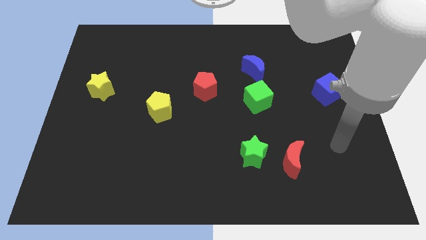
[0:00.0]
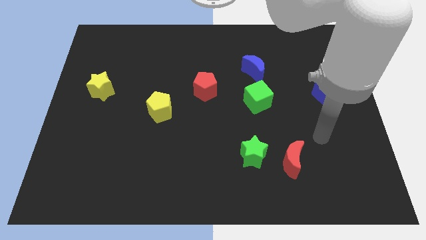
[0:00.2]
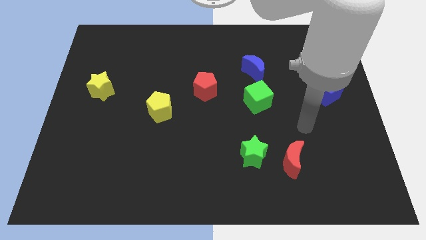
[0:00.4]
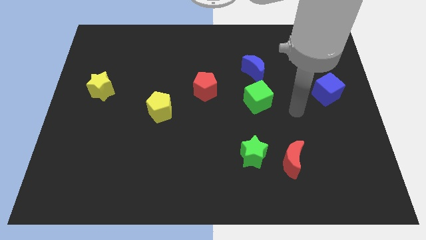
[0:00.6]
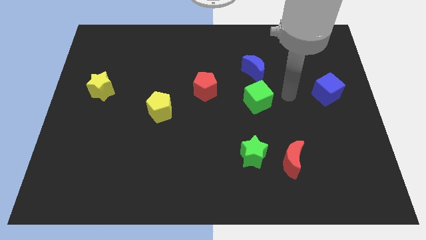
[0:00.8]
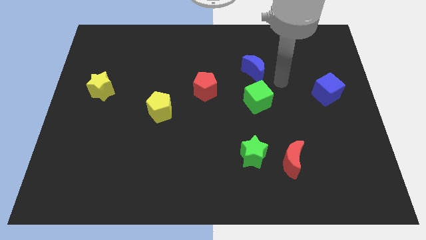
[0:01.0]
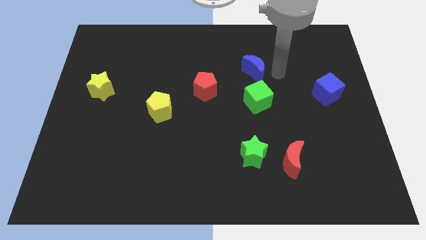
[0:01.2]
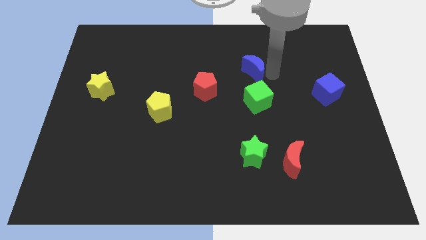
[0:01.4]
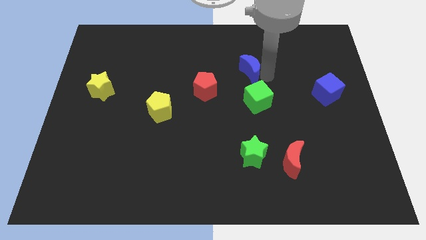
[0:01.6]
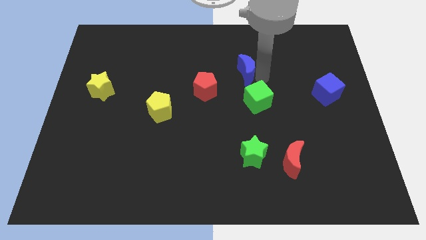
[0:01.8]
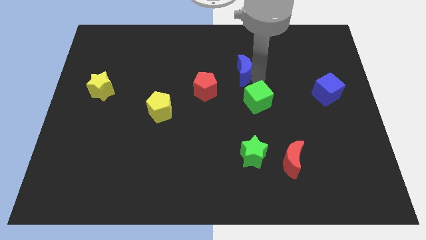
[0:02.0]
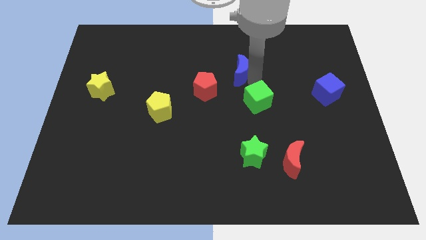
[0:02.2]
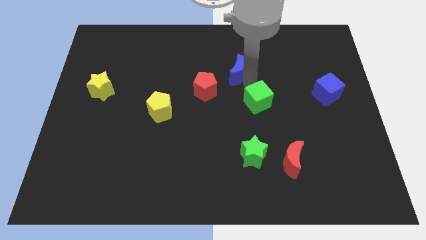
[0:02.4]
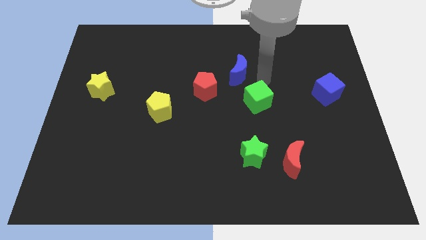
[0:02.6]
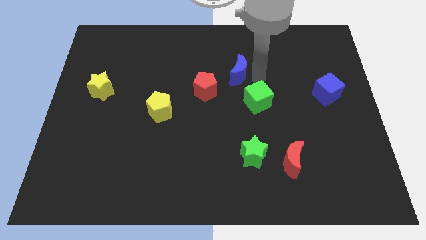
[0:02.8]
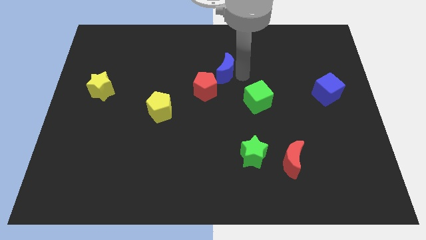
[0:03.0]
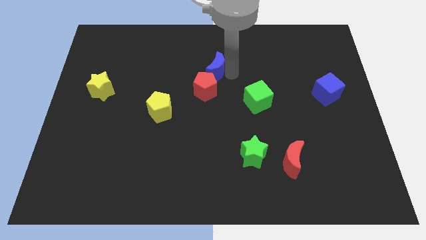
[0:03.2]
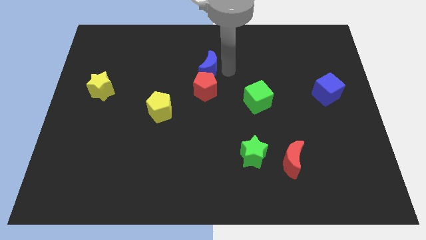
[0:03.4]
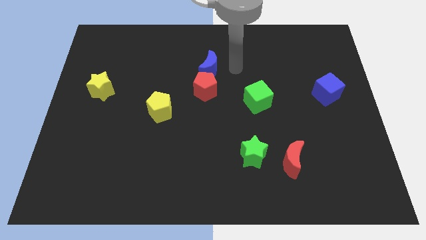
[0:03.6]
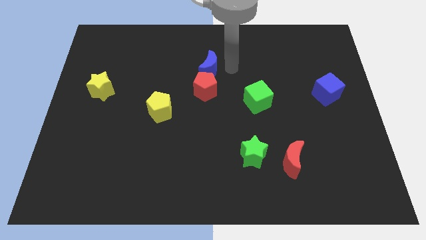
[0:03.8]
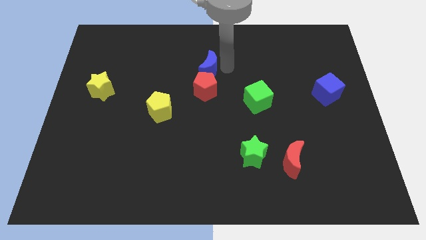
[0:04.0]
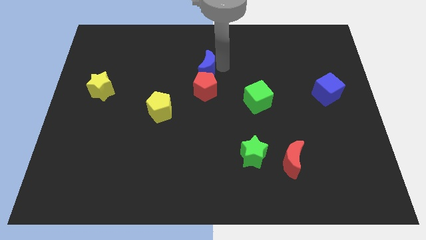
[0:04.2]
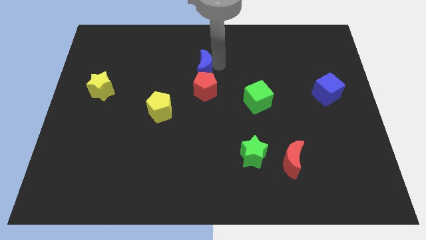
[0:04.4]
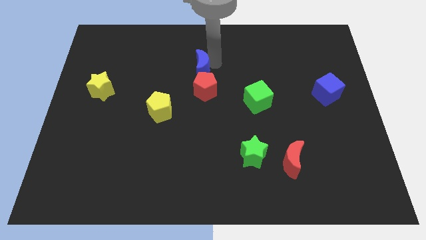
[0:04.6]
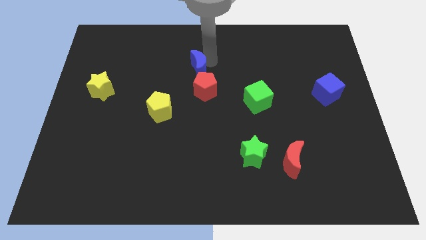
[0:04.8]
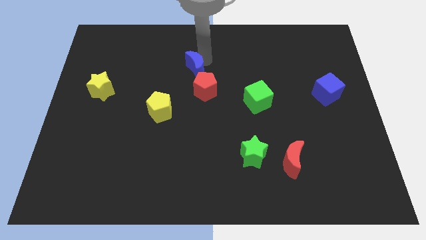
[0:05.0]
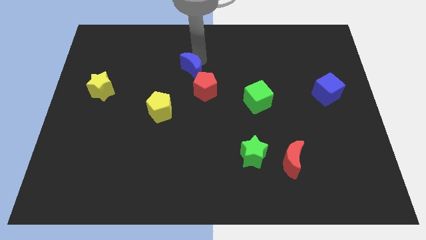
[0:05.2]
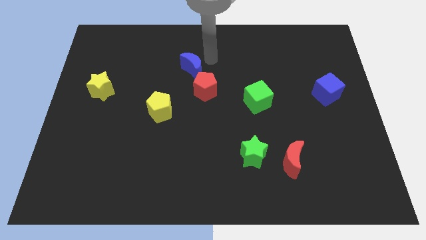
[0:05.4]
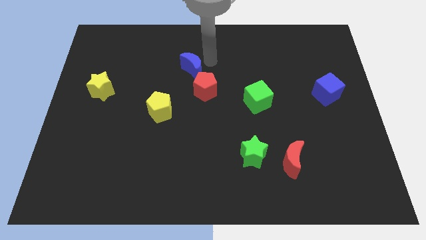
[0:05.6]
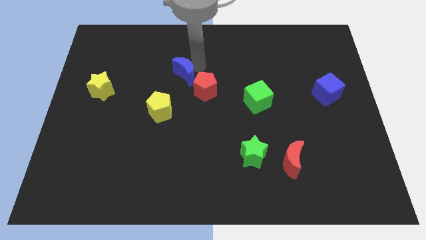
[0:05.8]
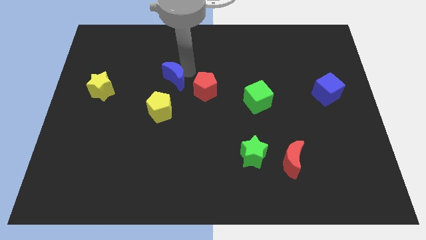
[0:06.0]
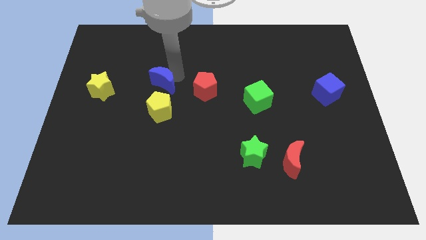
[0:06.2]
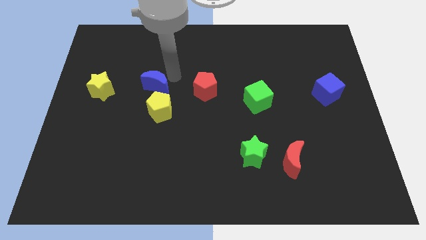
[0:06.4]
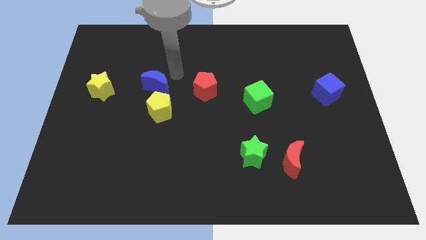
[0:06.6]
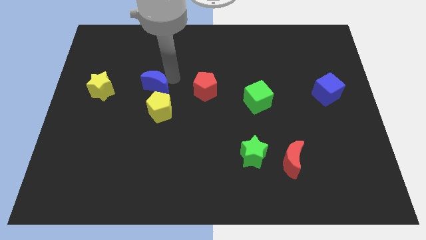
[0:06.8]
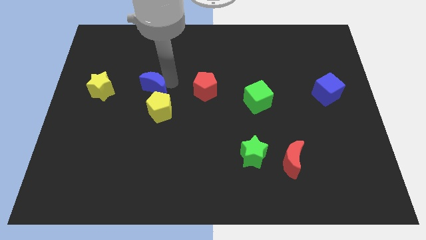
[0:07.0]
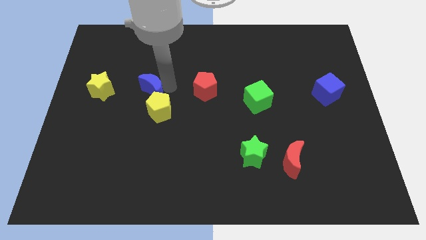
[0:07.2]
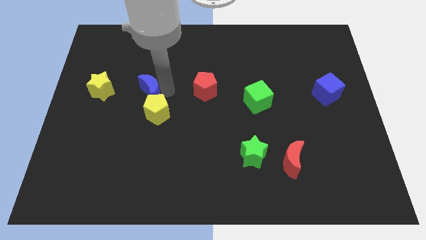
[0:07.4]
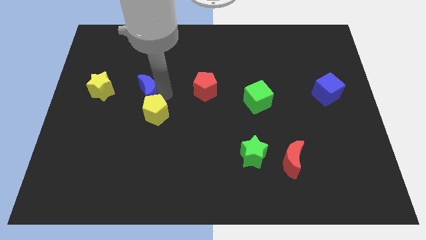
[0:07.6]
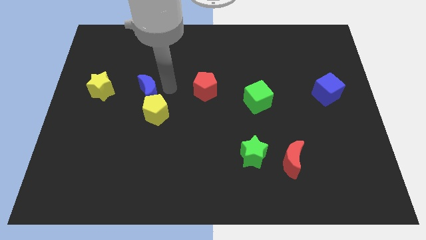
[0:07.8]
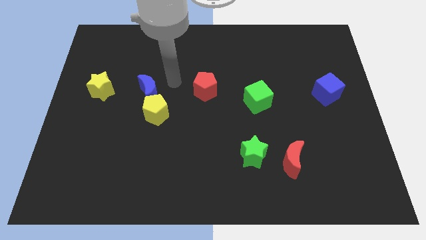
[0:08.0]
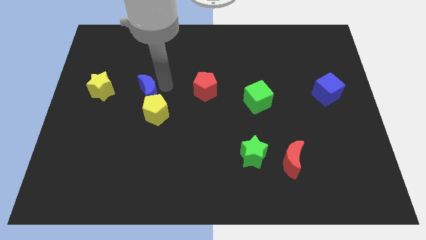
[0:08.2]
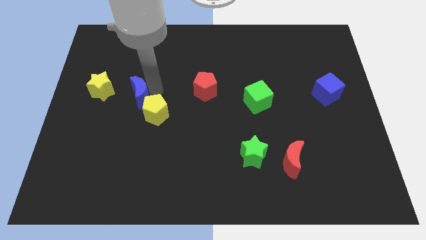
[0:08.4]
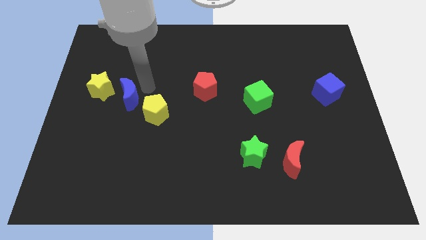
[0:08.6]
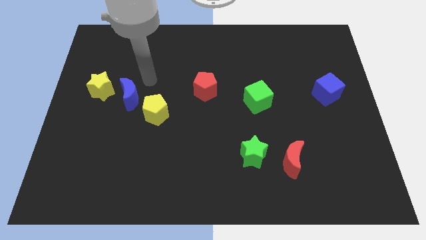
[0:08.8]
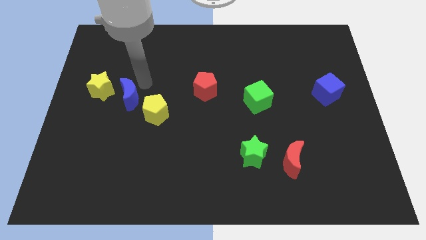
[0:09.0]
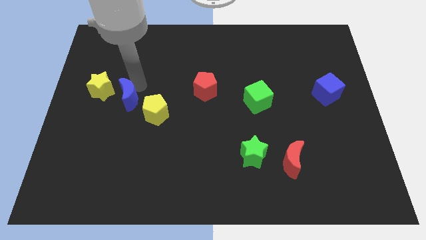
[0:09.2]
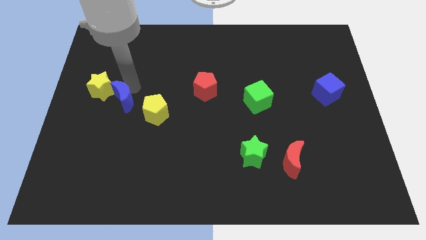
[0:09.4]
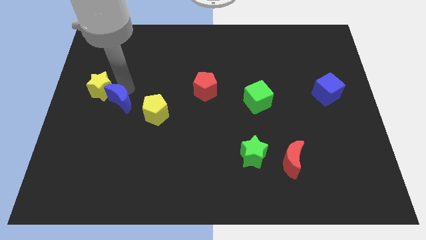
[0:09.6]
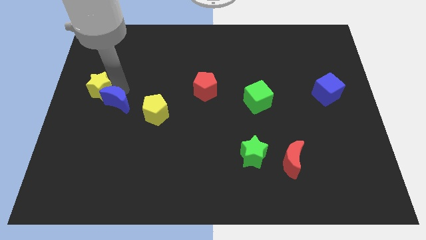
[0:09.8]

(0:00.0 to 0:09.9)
push the blue moon to the bottom side of the yellow star

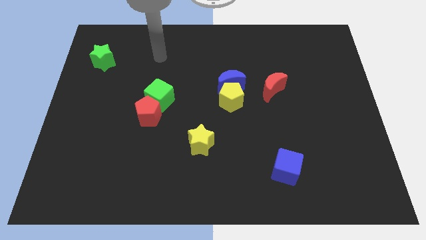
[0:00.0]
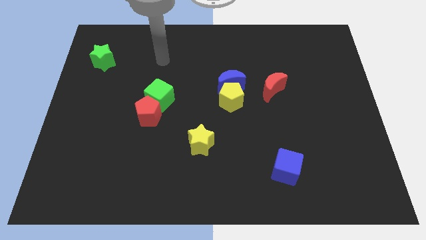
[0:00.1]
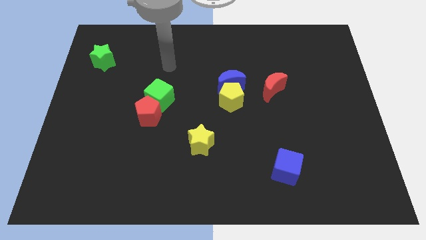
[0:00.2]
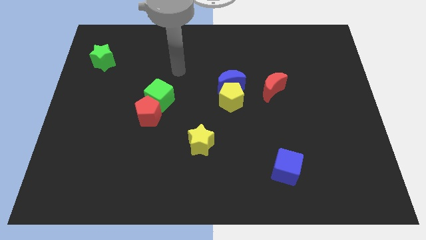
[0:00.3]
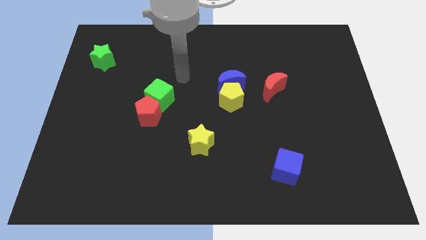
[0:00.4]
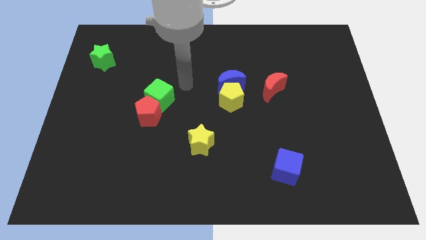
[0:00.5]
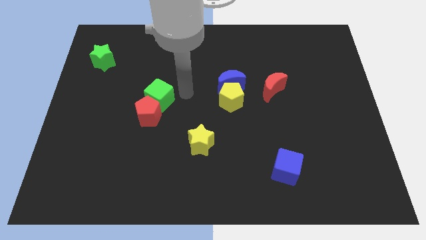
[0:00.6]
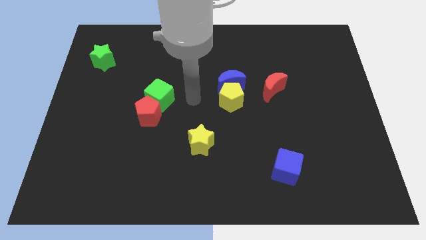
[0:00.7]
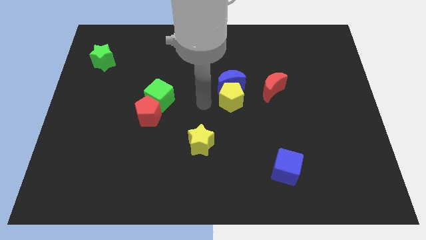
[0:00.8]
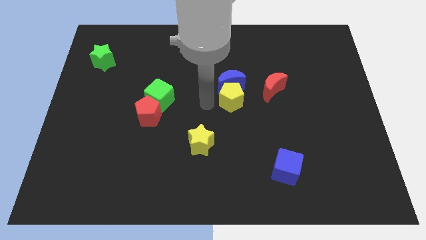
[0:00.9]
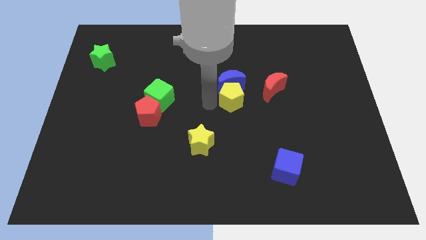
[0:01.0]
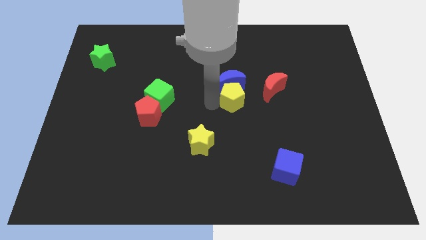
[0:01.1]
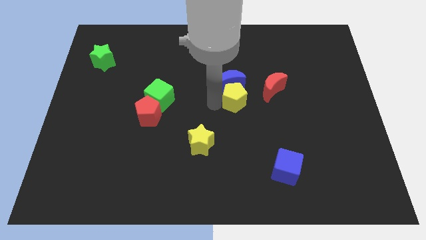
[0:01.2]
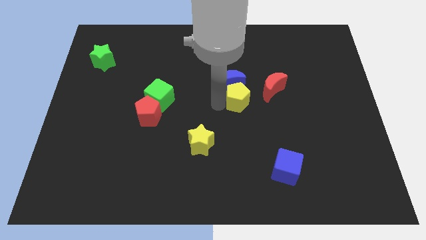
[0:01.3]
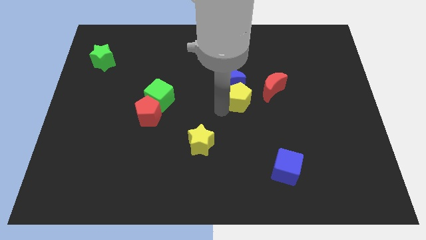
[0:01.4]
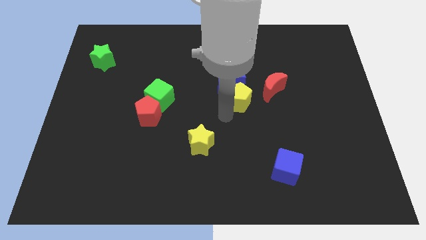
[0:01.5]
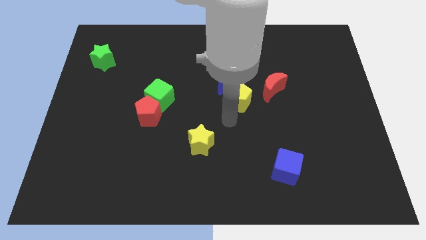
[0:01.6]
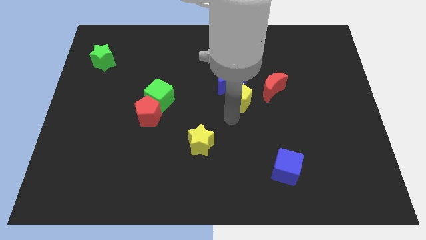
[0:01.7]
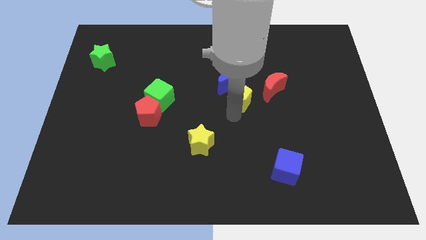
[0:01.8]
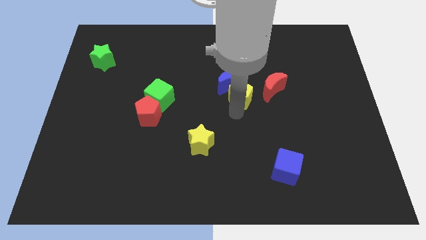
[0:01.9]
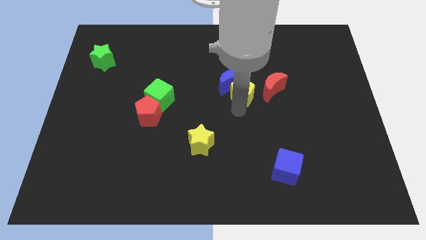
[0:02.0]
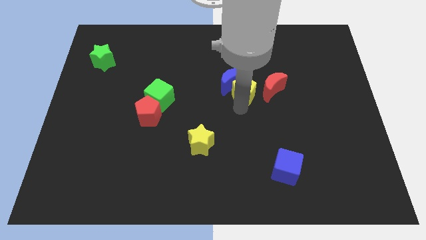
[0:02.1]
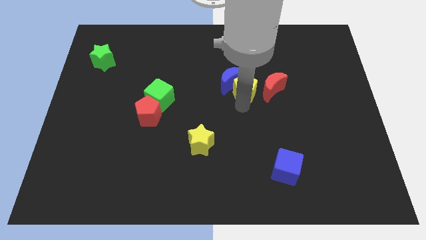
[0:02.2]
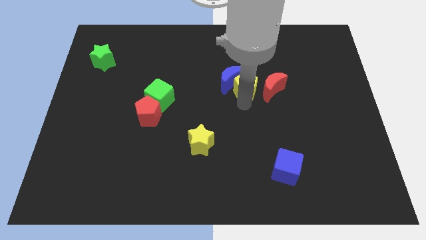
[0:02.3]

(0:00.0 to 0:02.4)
put the yellow pentagon to the top left side of the red moon
